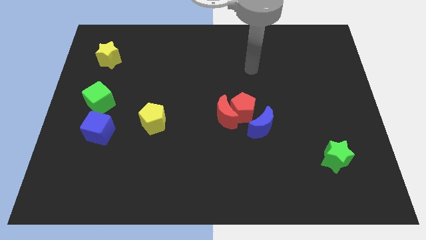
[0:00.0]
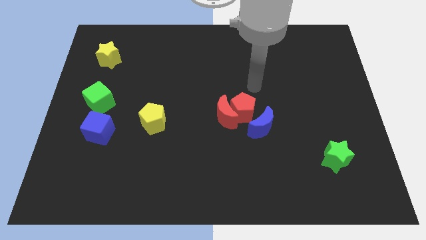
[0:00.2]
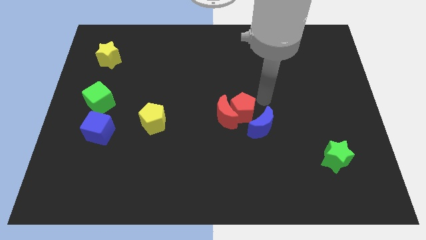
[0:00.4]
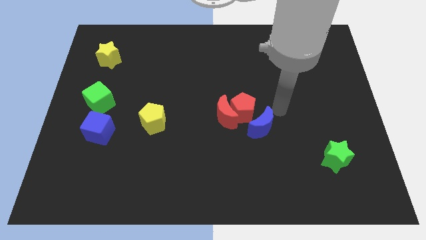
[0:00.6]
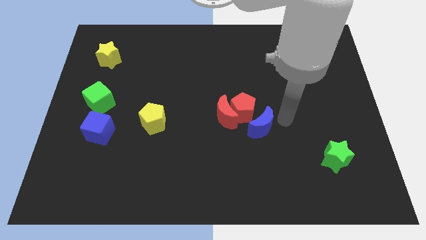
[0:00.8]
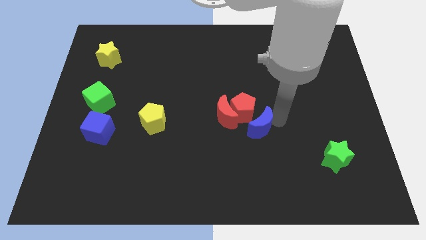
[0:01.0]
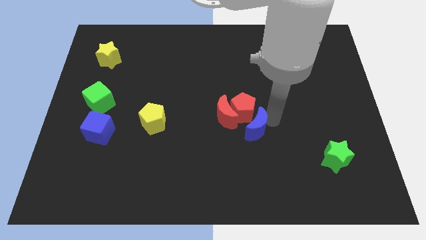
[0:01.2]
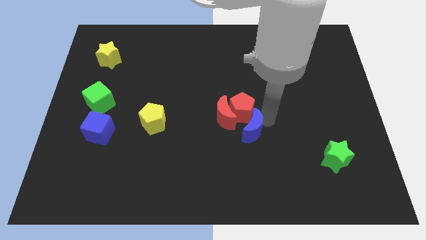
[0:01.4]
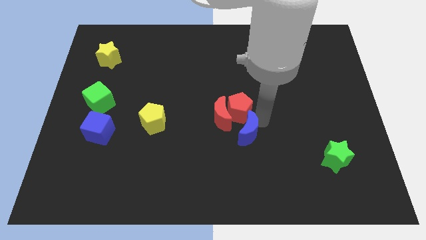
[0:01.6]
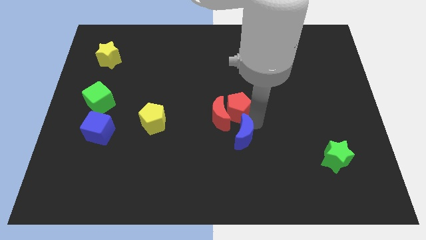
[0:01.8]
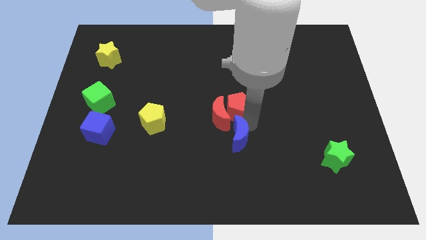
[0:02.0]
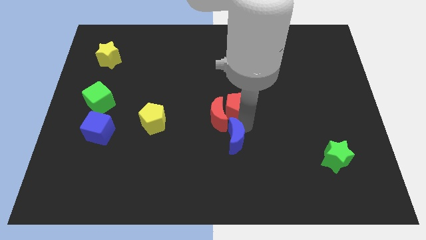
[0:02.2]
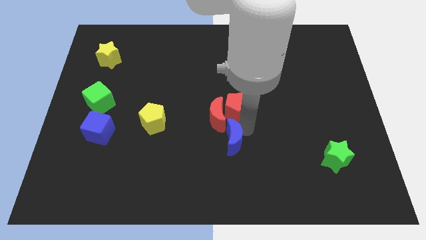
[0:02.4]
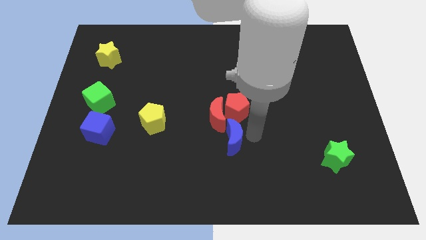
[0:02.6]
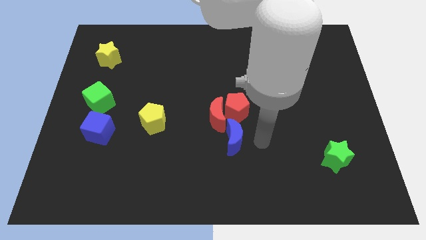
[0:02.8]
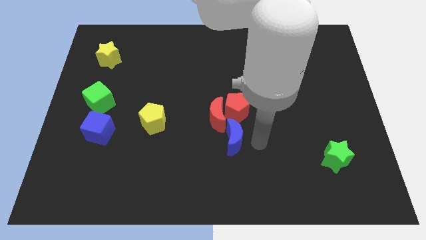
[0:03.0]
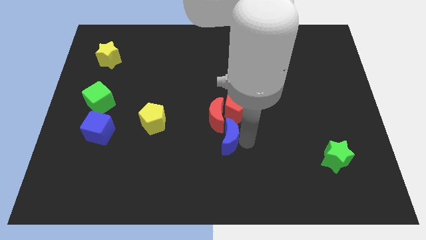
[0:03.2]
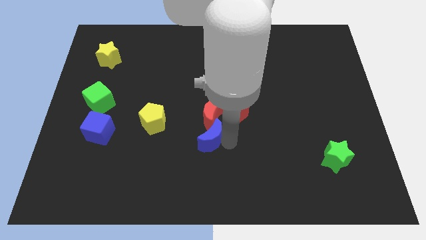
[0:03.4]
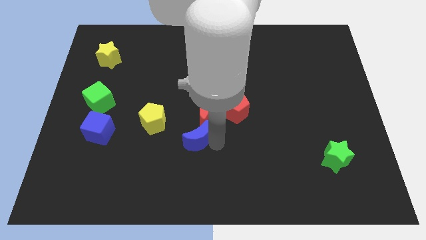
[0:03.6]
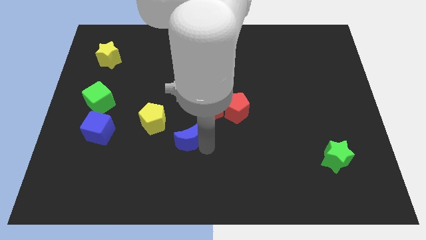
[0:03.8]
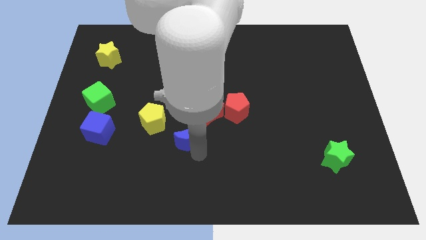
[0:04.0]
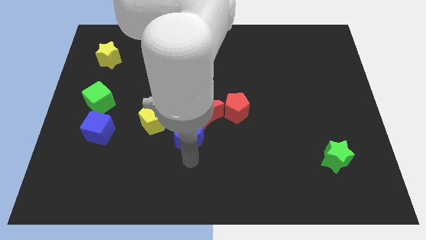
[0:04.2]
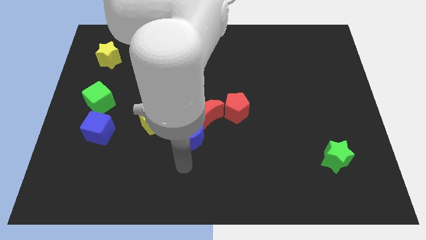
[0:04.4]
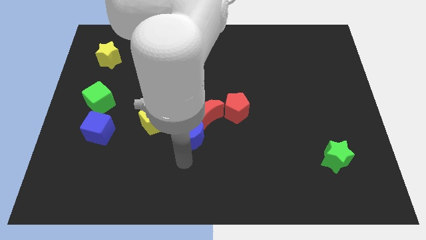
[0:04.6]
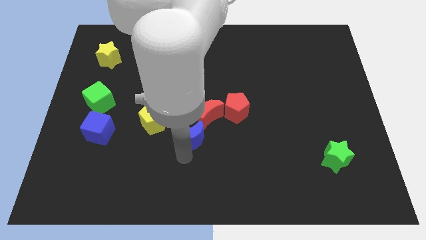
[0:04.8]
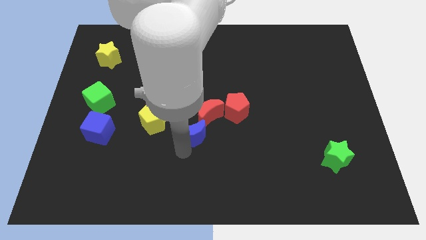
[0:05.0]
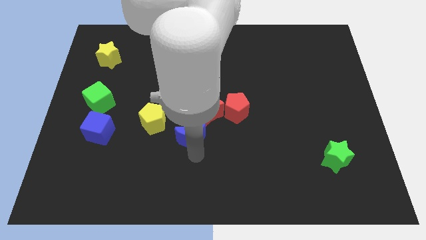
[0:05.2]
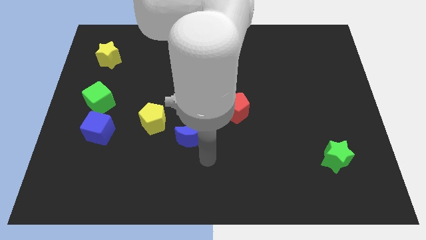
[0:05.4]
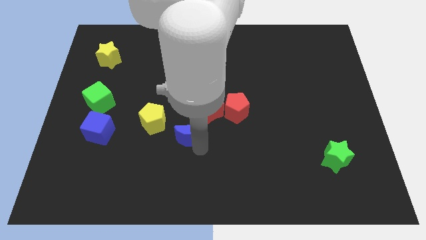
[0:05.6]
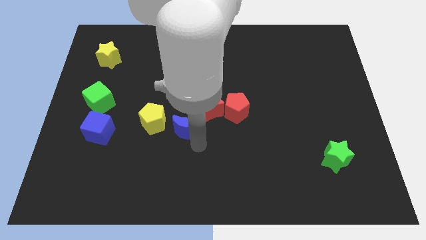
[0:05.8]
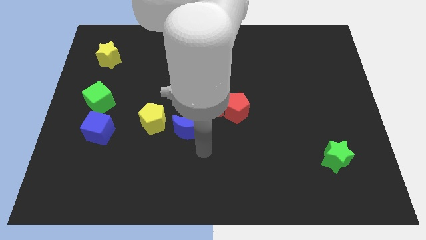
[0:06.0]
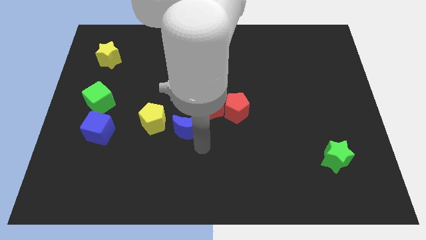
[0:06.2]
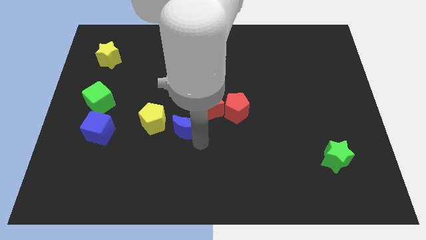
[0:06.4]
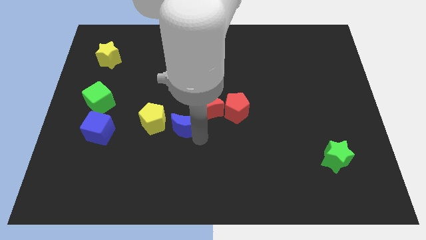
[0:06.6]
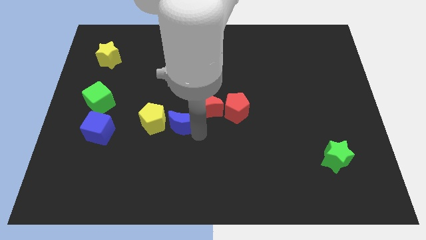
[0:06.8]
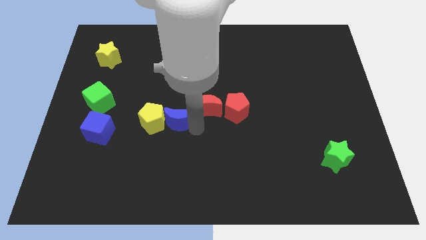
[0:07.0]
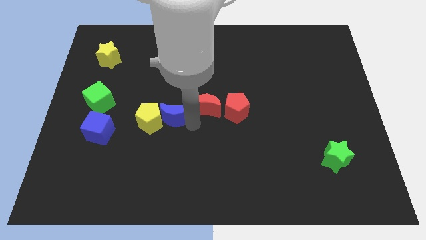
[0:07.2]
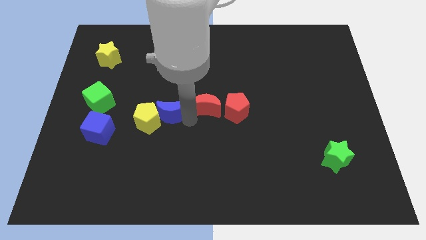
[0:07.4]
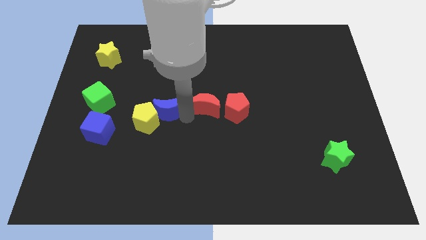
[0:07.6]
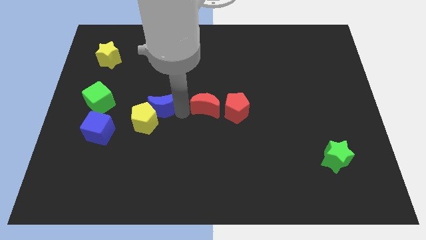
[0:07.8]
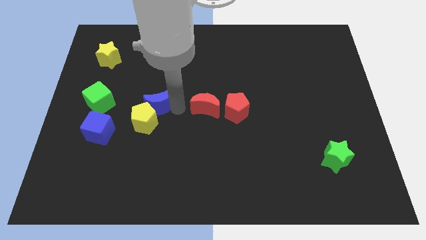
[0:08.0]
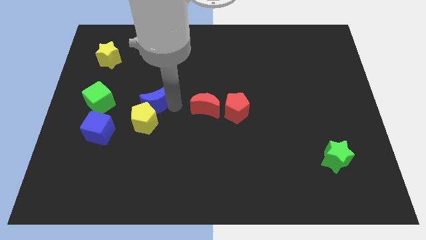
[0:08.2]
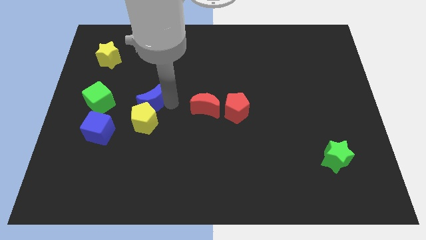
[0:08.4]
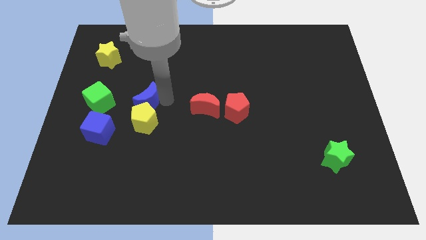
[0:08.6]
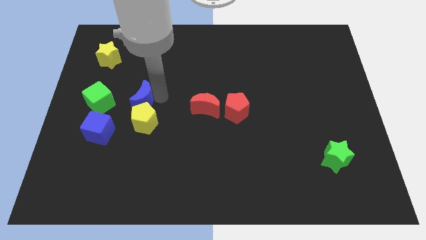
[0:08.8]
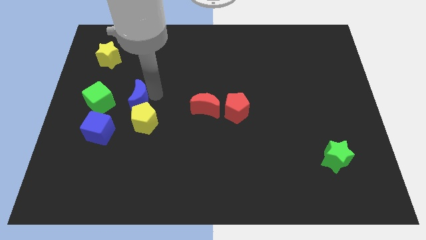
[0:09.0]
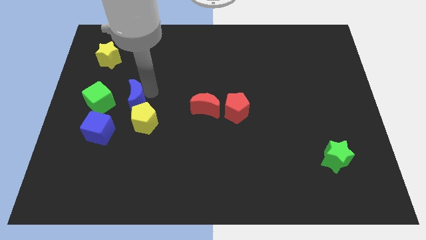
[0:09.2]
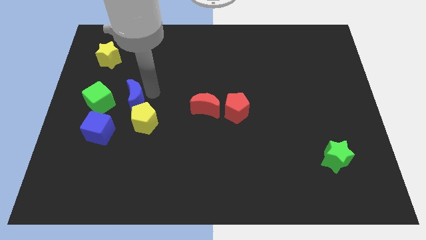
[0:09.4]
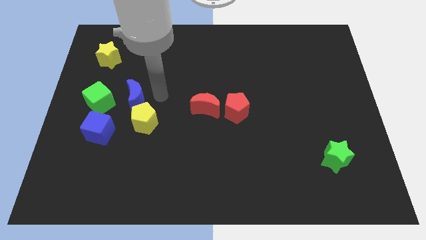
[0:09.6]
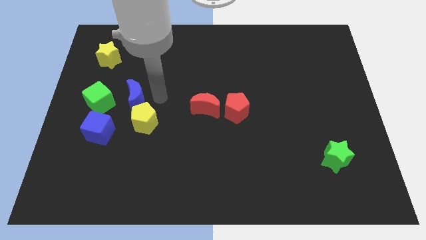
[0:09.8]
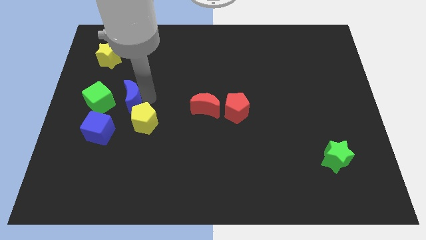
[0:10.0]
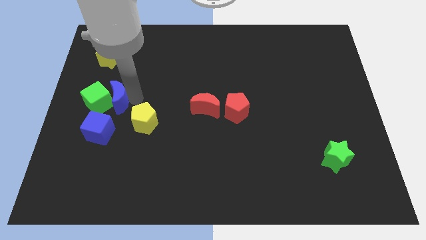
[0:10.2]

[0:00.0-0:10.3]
slide the blue moon close to the green cube

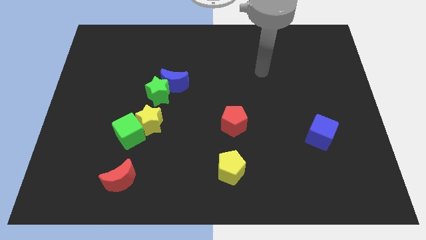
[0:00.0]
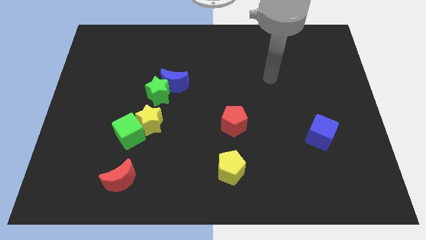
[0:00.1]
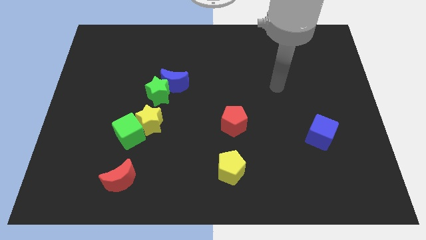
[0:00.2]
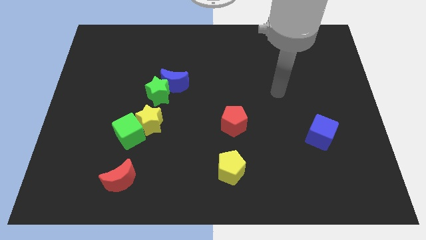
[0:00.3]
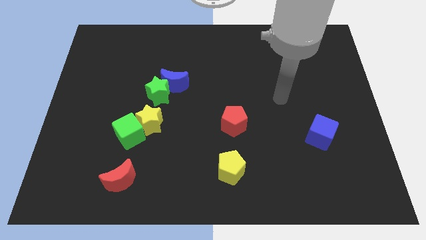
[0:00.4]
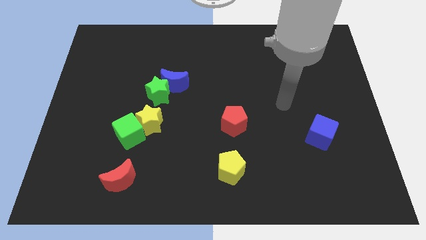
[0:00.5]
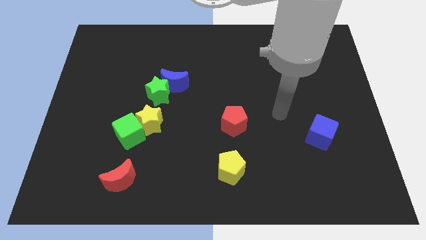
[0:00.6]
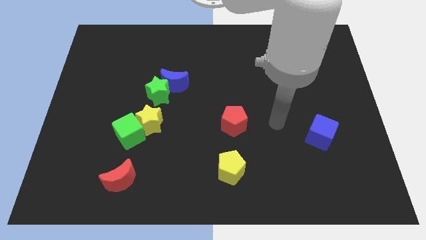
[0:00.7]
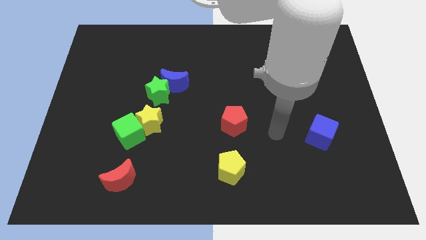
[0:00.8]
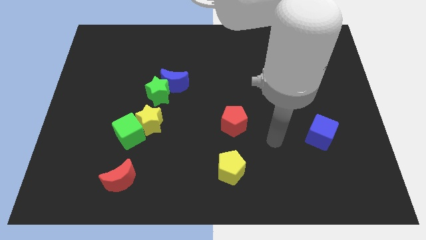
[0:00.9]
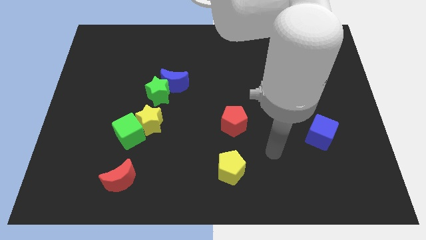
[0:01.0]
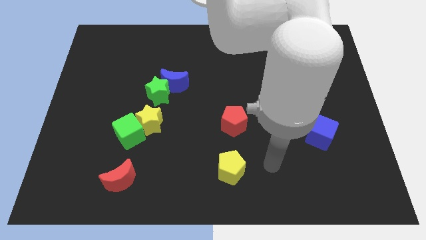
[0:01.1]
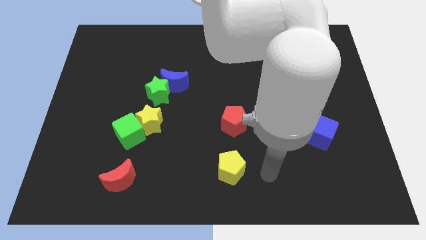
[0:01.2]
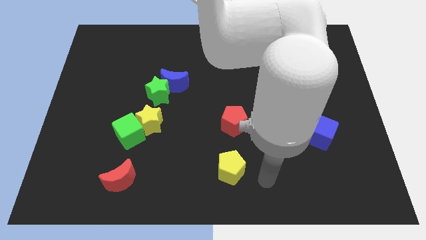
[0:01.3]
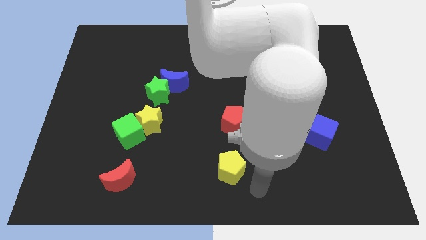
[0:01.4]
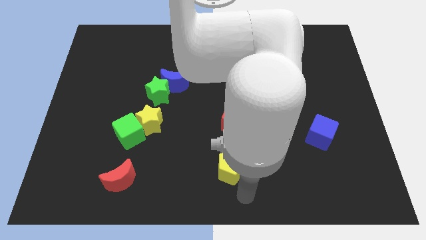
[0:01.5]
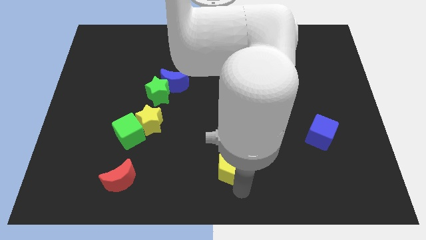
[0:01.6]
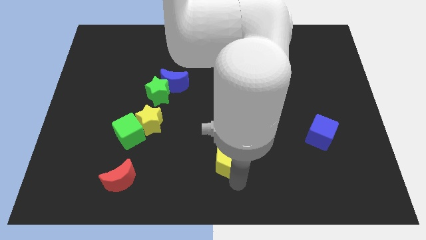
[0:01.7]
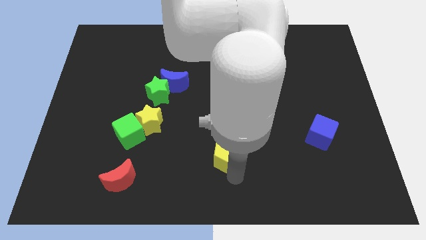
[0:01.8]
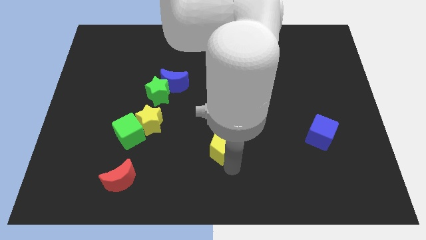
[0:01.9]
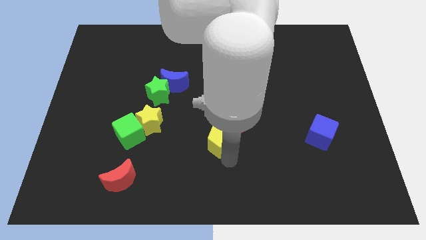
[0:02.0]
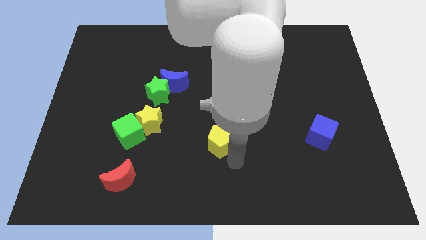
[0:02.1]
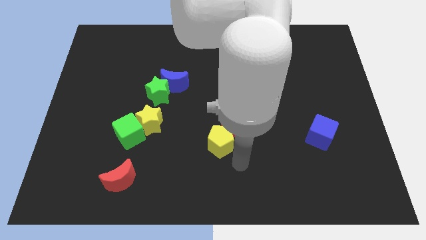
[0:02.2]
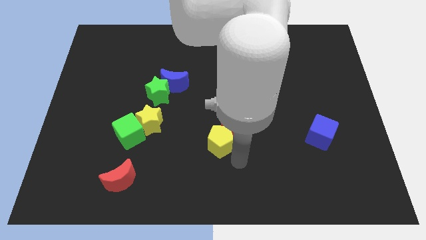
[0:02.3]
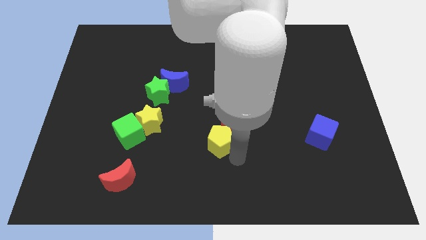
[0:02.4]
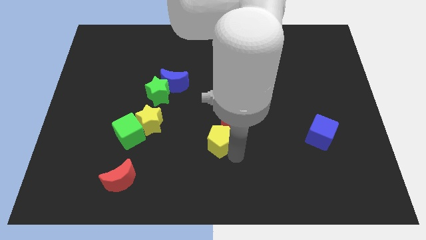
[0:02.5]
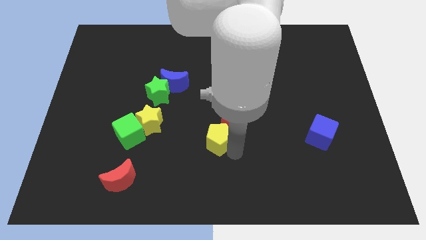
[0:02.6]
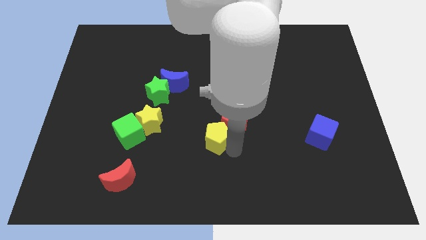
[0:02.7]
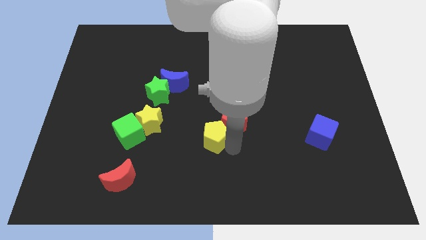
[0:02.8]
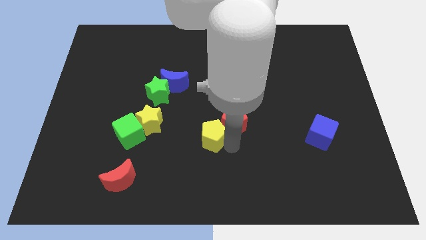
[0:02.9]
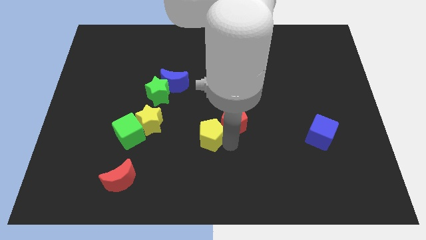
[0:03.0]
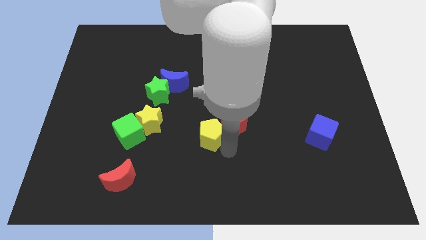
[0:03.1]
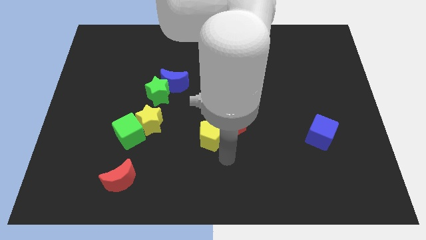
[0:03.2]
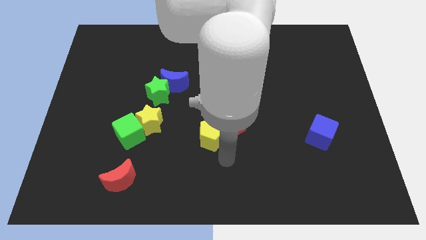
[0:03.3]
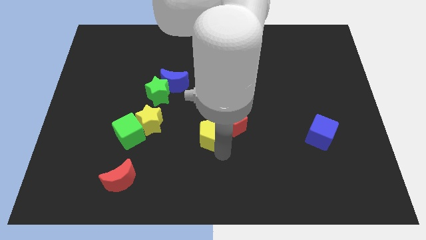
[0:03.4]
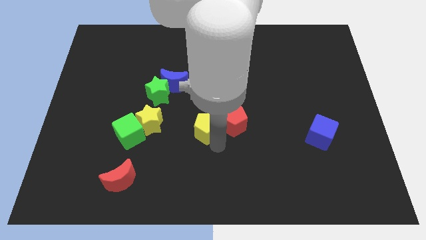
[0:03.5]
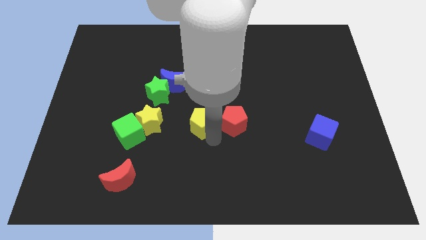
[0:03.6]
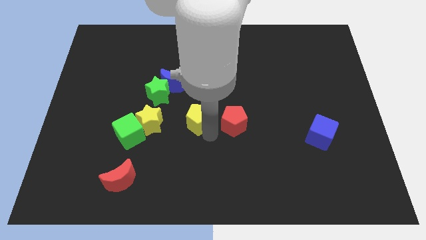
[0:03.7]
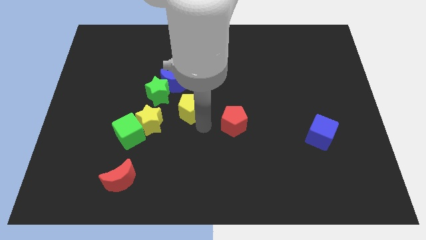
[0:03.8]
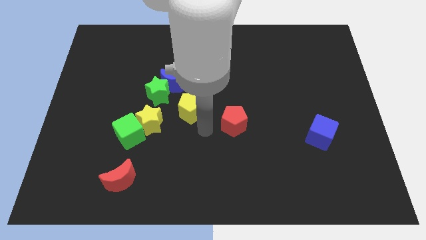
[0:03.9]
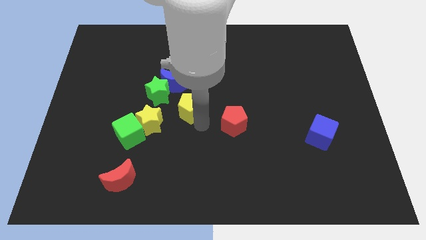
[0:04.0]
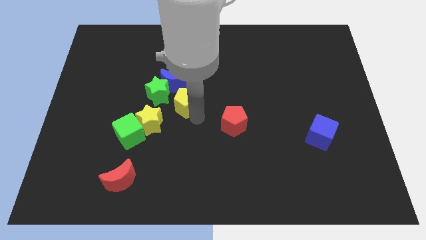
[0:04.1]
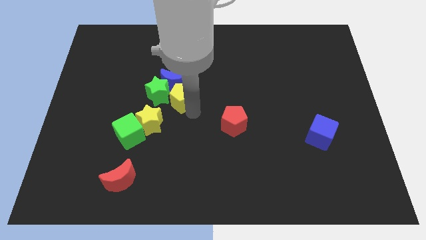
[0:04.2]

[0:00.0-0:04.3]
put the yellow pentagon close to the blue moon
